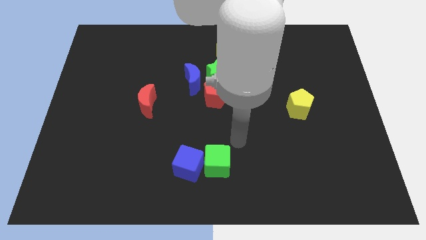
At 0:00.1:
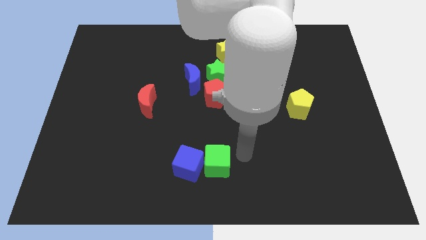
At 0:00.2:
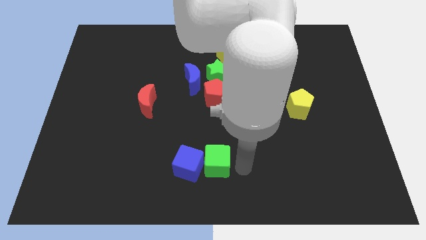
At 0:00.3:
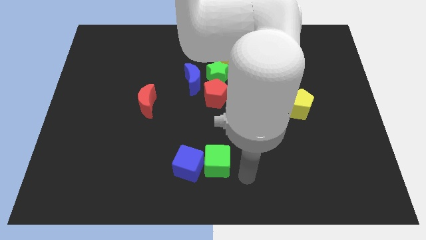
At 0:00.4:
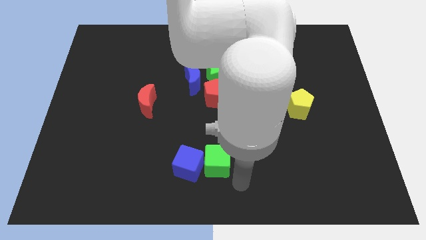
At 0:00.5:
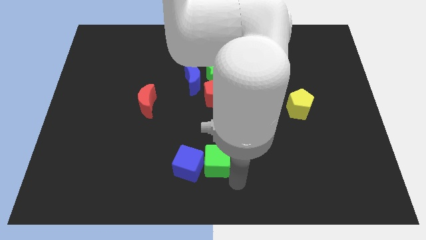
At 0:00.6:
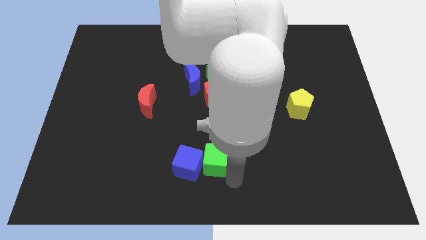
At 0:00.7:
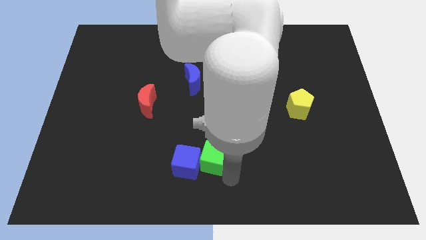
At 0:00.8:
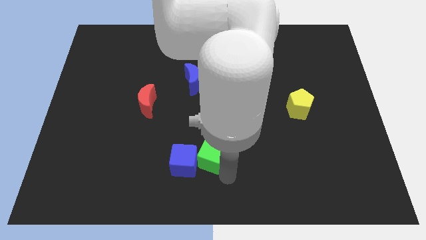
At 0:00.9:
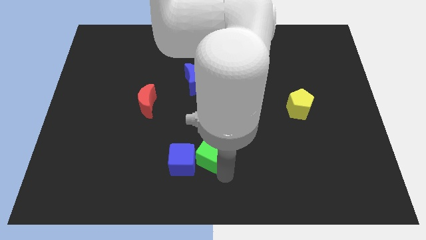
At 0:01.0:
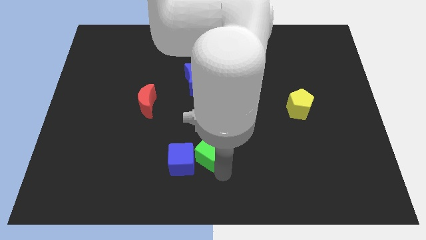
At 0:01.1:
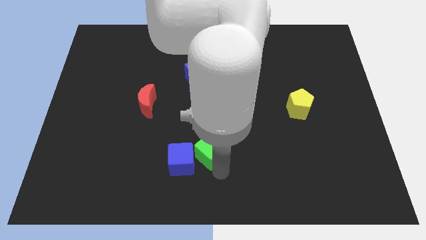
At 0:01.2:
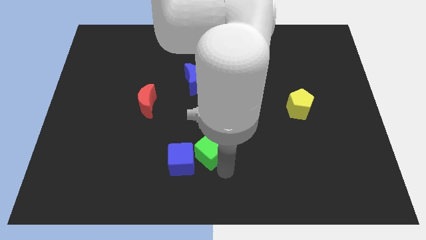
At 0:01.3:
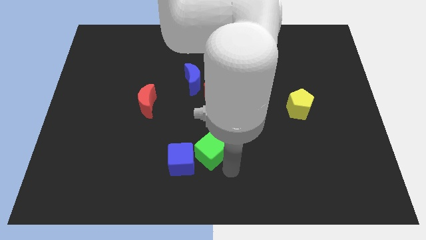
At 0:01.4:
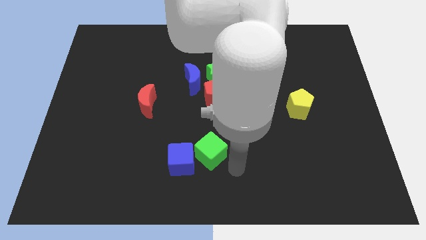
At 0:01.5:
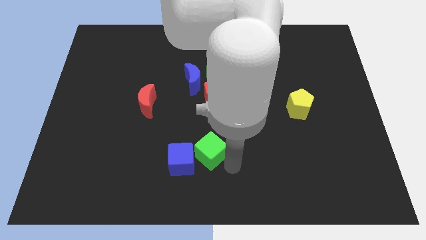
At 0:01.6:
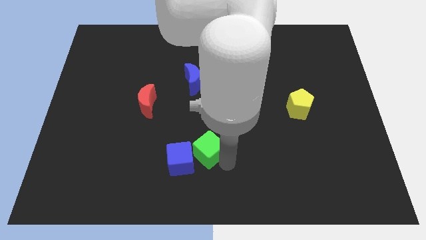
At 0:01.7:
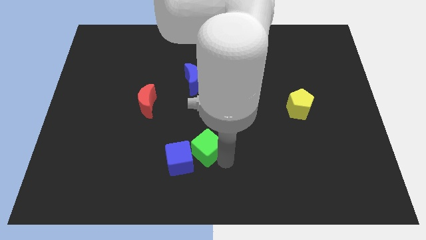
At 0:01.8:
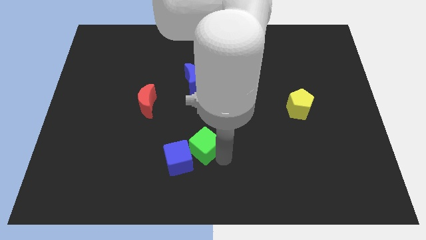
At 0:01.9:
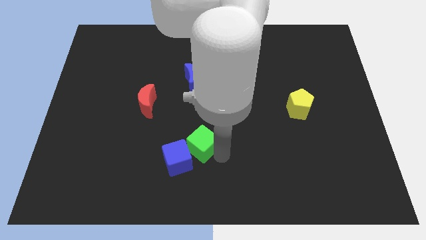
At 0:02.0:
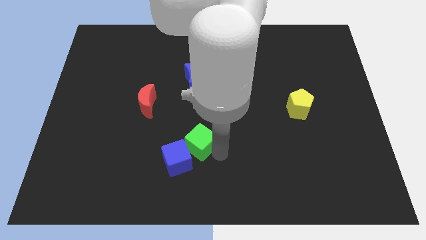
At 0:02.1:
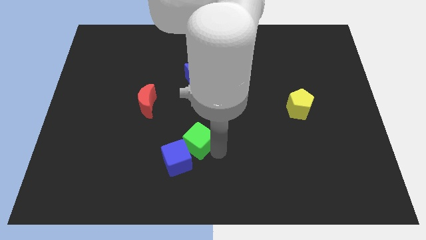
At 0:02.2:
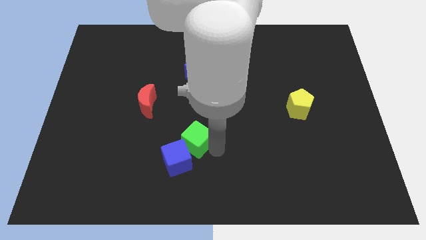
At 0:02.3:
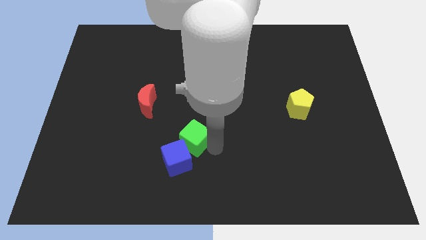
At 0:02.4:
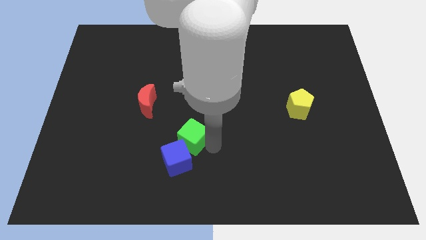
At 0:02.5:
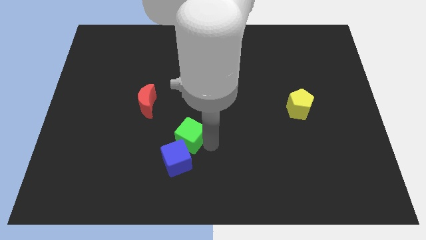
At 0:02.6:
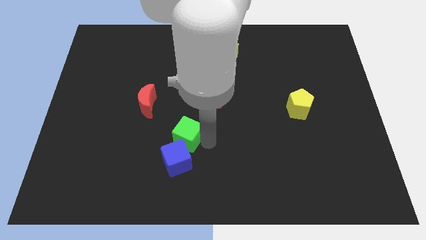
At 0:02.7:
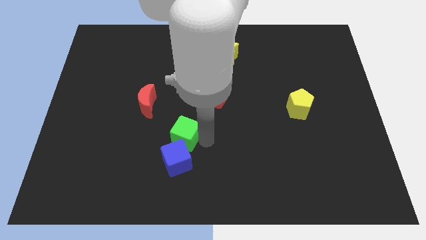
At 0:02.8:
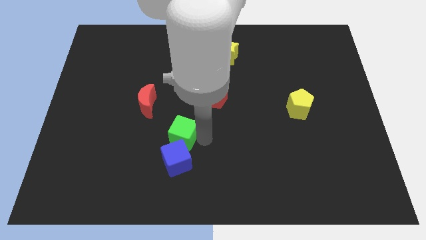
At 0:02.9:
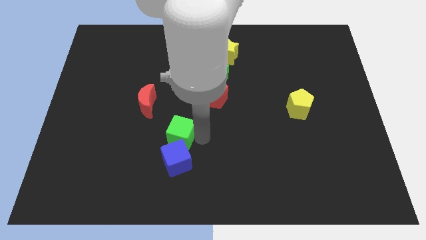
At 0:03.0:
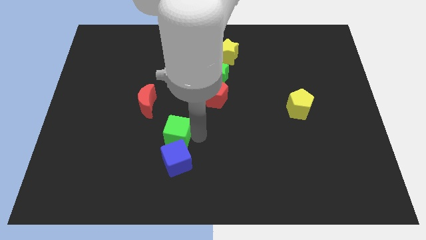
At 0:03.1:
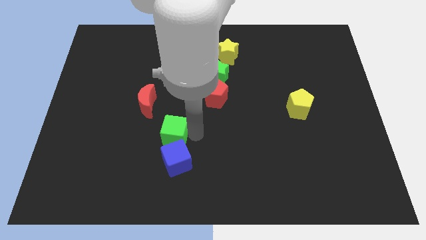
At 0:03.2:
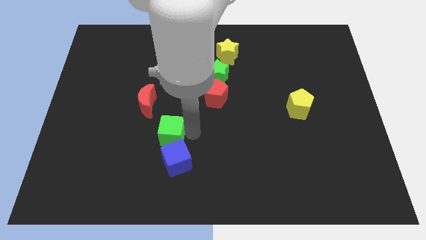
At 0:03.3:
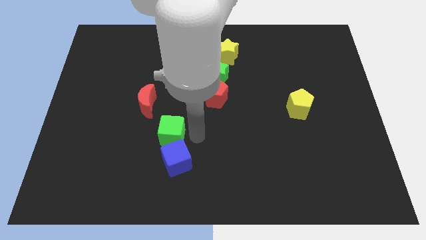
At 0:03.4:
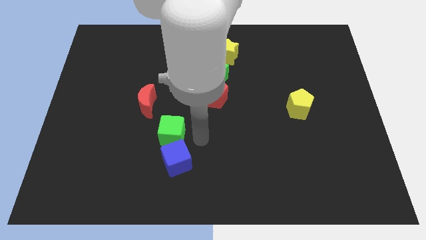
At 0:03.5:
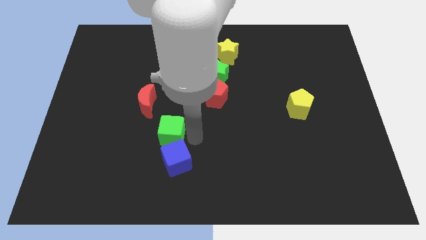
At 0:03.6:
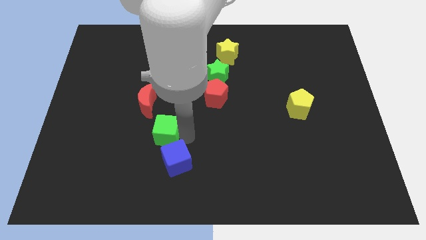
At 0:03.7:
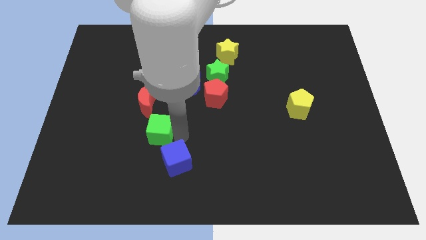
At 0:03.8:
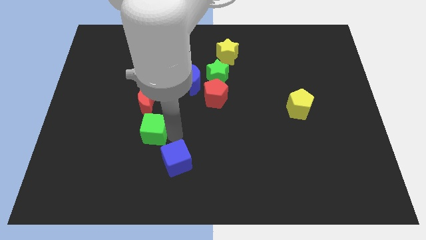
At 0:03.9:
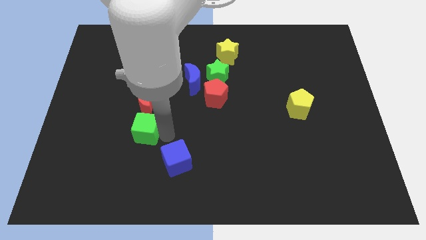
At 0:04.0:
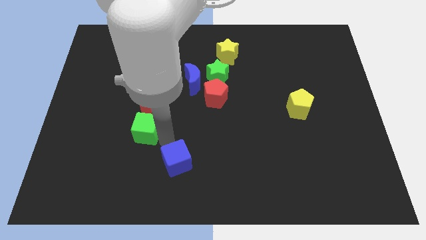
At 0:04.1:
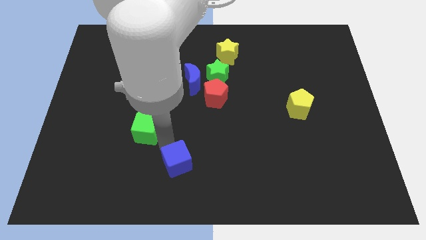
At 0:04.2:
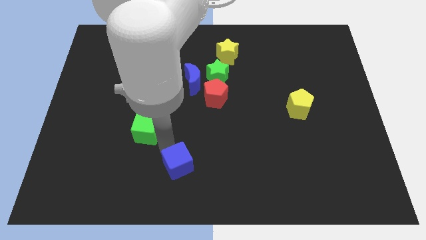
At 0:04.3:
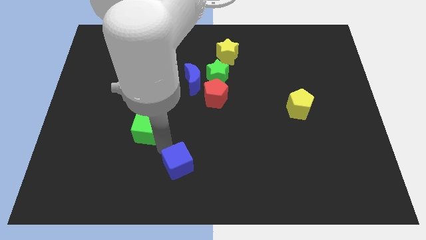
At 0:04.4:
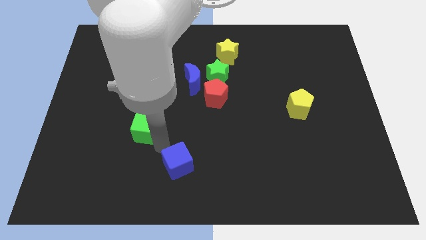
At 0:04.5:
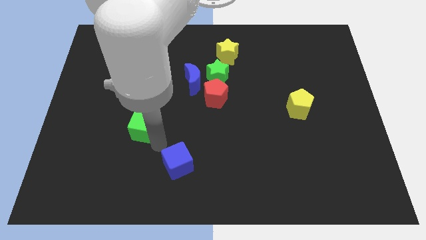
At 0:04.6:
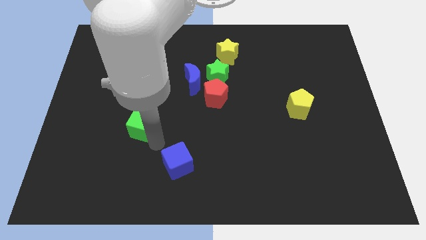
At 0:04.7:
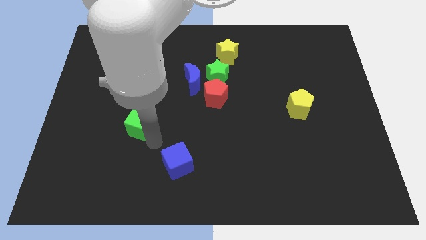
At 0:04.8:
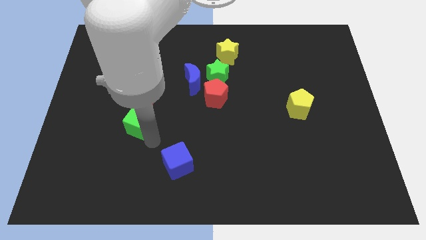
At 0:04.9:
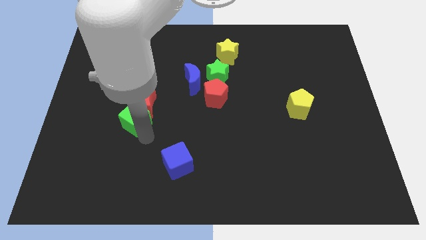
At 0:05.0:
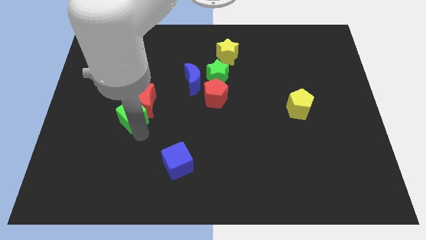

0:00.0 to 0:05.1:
push the green cube up and left

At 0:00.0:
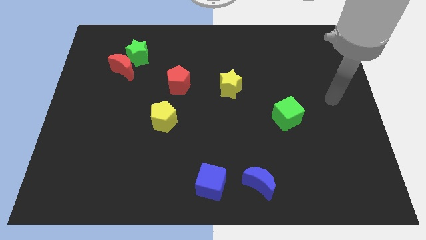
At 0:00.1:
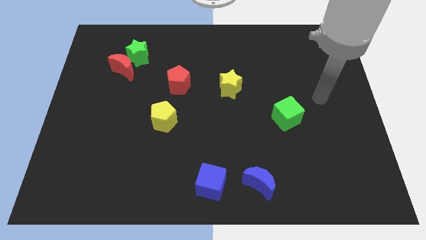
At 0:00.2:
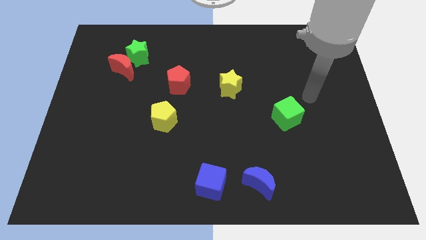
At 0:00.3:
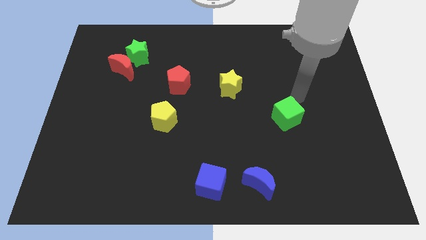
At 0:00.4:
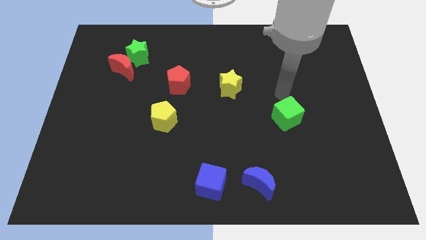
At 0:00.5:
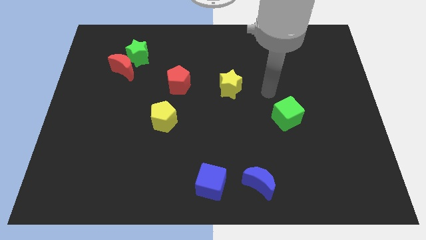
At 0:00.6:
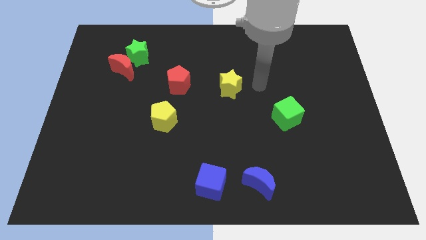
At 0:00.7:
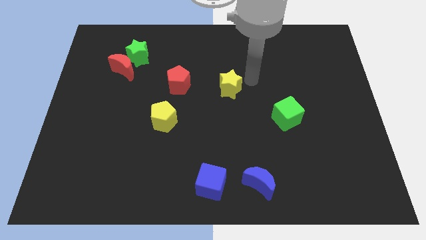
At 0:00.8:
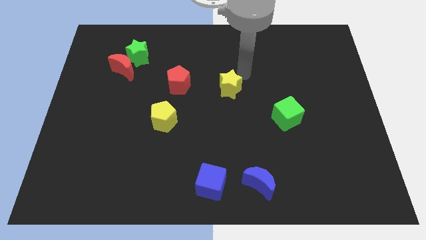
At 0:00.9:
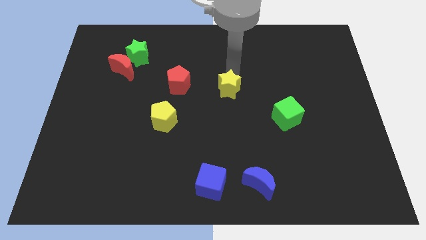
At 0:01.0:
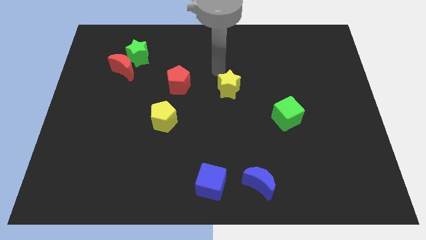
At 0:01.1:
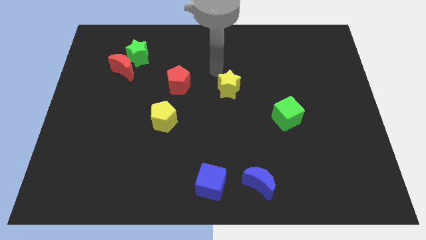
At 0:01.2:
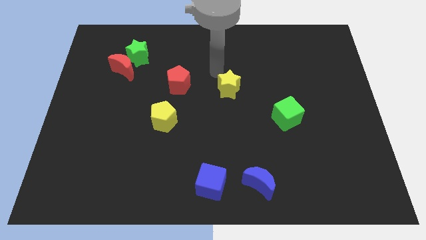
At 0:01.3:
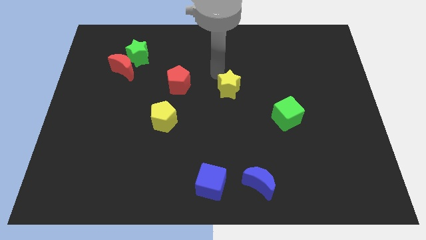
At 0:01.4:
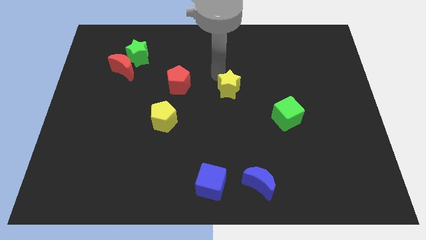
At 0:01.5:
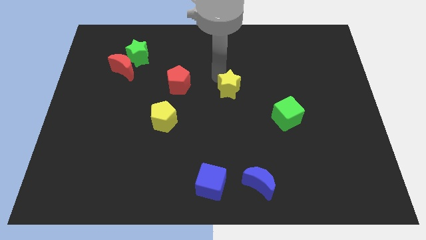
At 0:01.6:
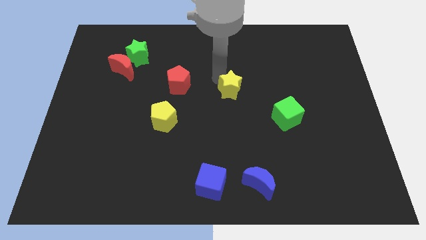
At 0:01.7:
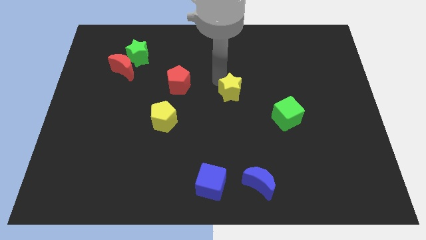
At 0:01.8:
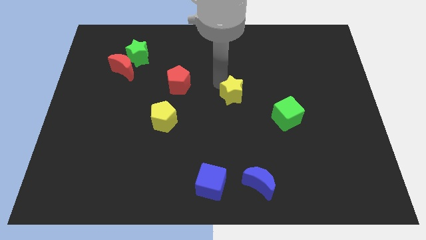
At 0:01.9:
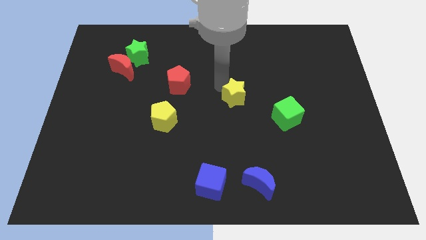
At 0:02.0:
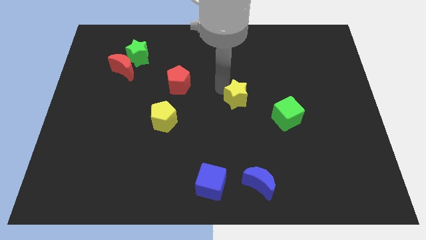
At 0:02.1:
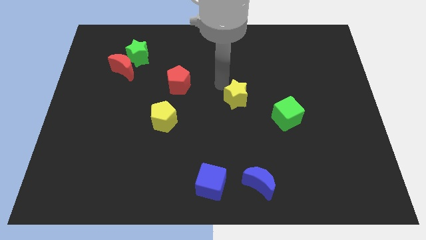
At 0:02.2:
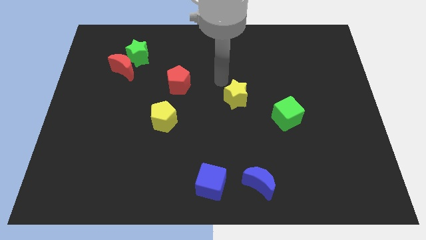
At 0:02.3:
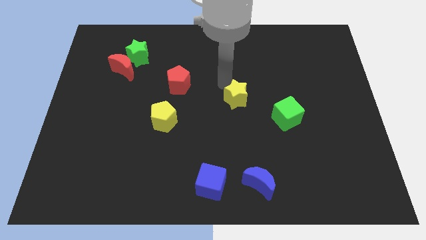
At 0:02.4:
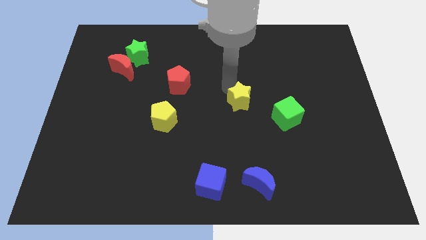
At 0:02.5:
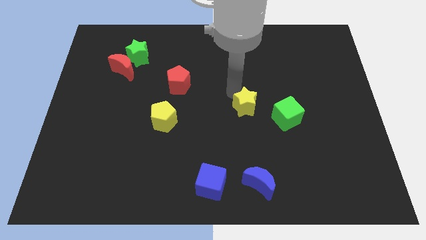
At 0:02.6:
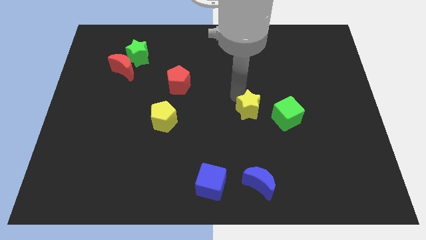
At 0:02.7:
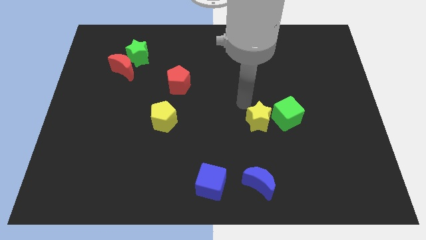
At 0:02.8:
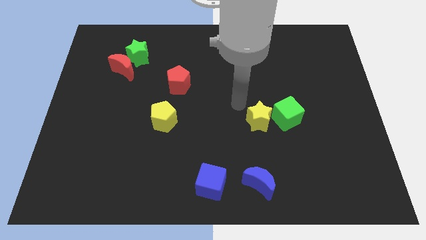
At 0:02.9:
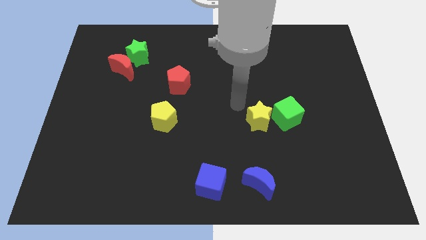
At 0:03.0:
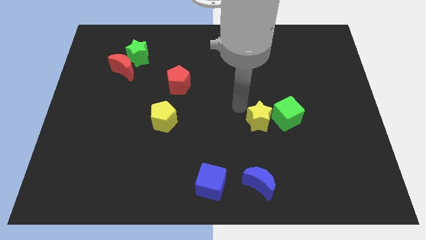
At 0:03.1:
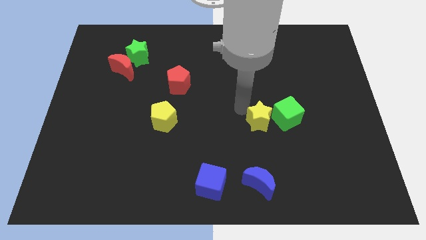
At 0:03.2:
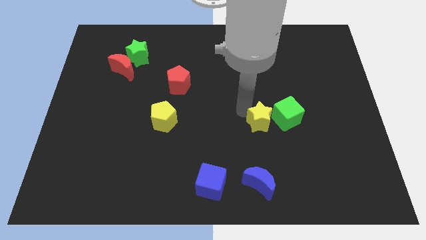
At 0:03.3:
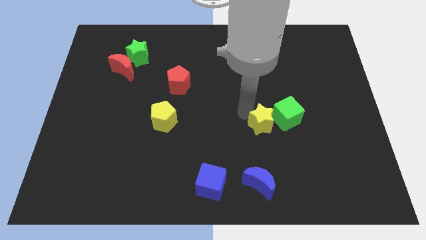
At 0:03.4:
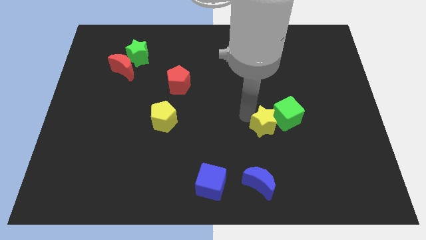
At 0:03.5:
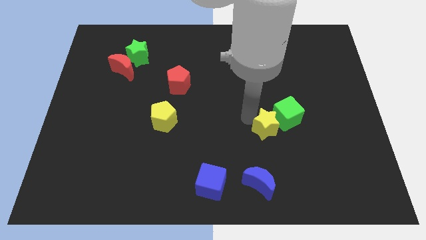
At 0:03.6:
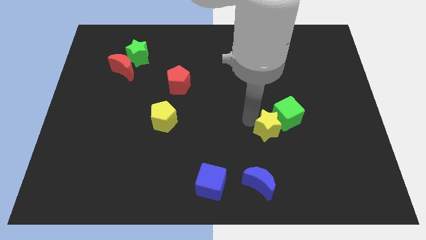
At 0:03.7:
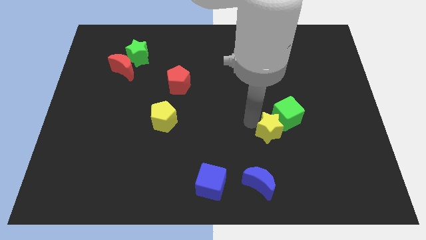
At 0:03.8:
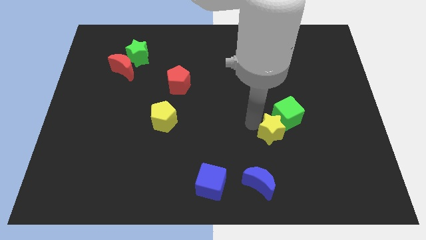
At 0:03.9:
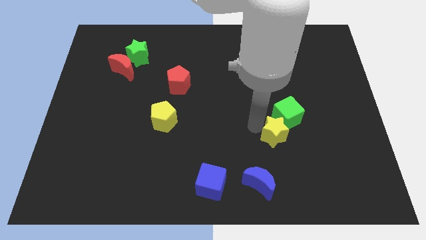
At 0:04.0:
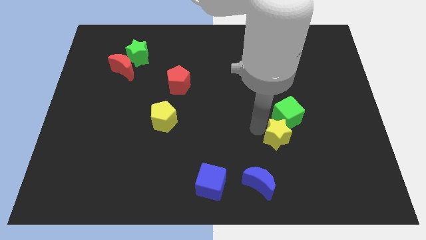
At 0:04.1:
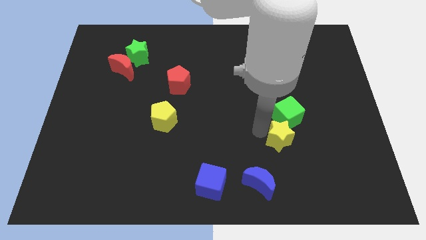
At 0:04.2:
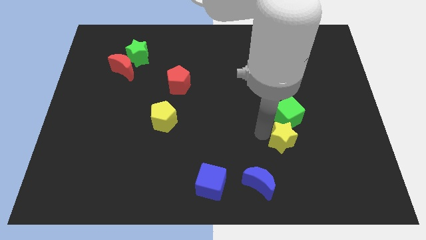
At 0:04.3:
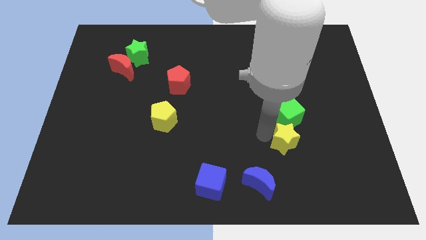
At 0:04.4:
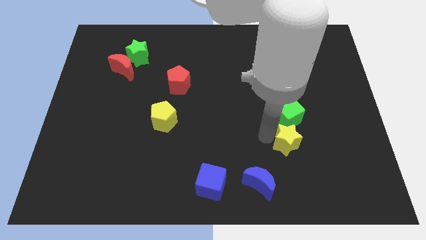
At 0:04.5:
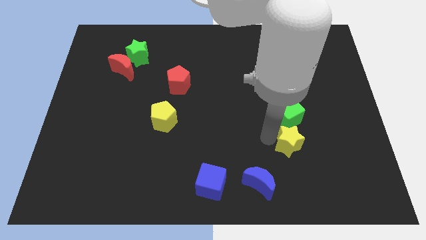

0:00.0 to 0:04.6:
move the yellow star downwards and to the right diagonally
